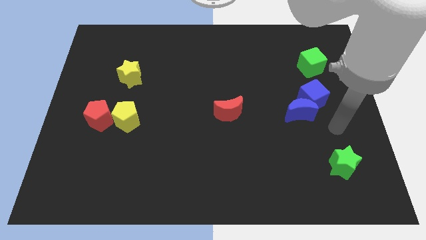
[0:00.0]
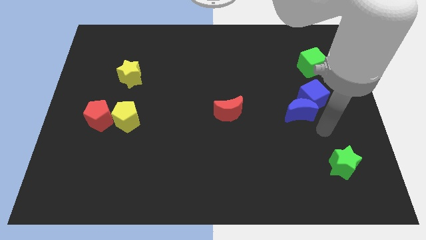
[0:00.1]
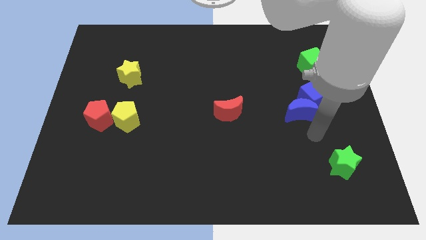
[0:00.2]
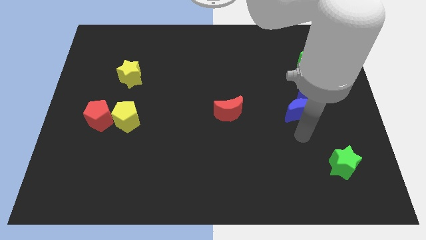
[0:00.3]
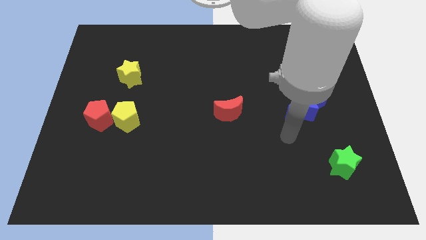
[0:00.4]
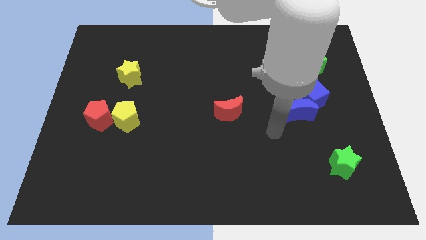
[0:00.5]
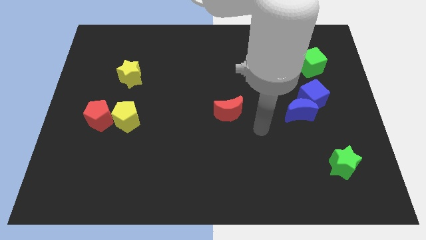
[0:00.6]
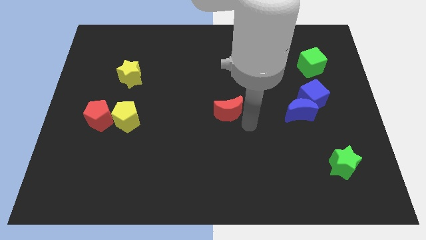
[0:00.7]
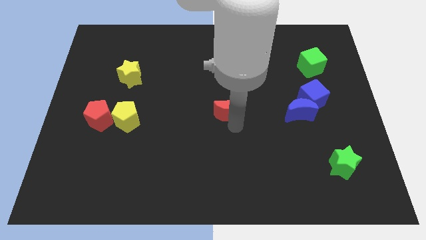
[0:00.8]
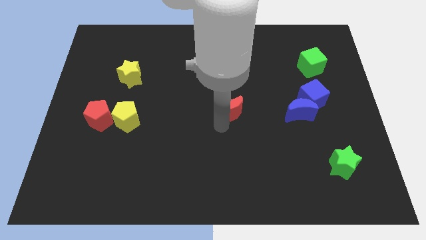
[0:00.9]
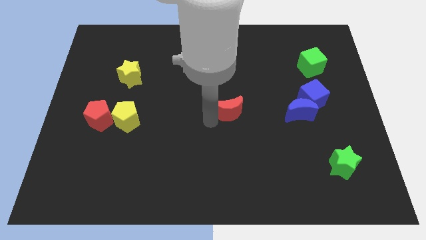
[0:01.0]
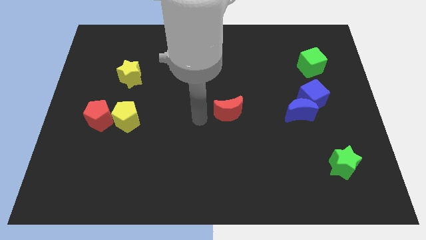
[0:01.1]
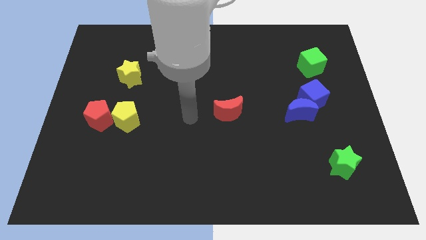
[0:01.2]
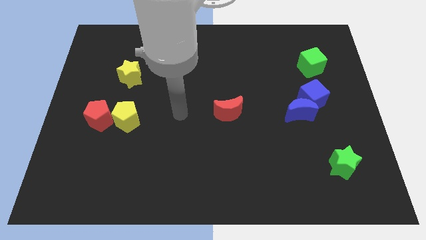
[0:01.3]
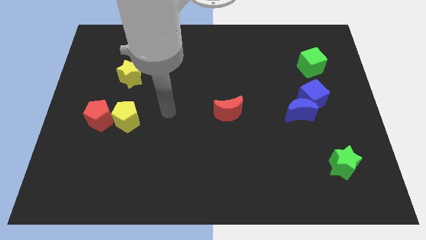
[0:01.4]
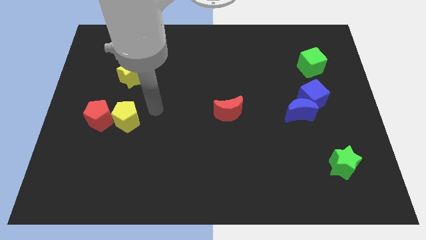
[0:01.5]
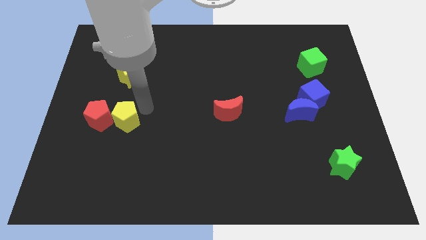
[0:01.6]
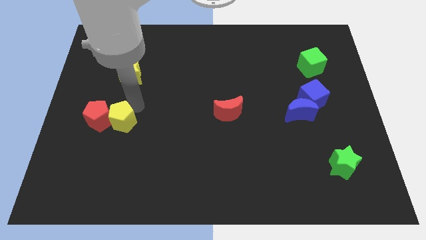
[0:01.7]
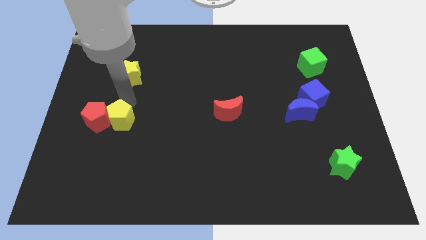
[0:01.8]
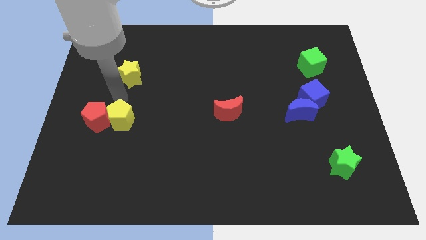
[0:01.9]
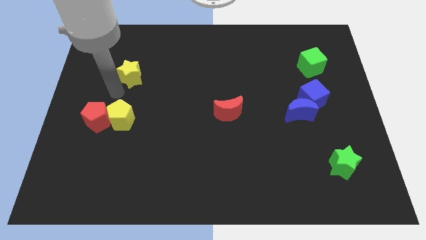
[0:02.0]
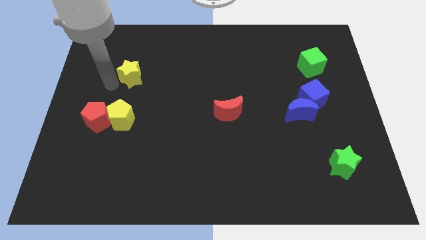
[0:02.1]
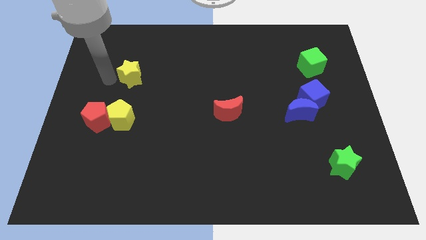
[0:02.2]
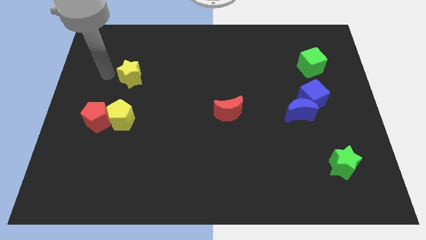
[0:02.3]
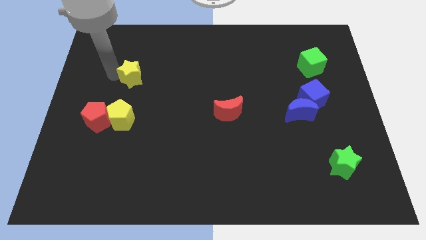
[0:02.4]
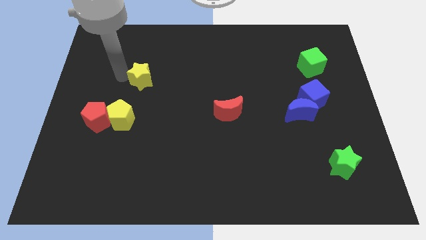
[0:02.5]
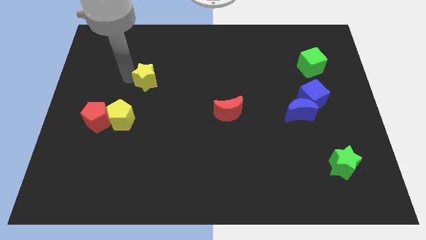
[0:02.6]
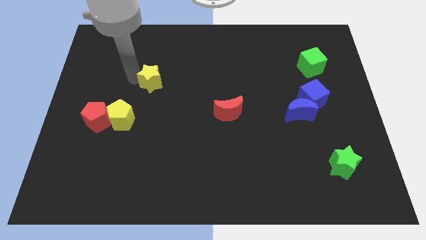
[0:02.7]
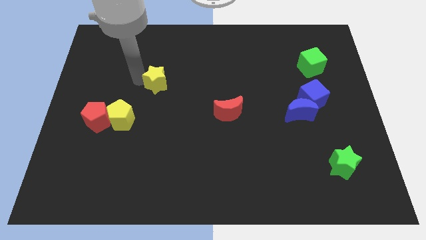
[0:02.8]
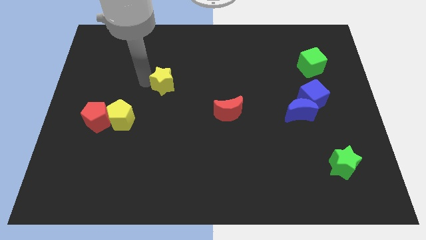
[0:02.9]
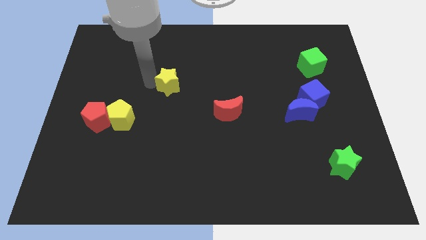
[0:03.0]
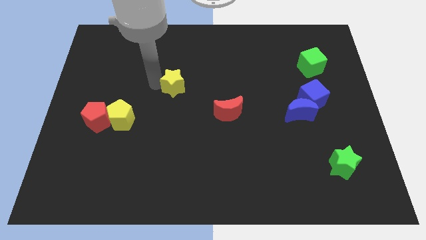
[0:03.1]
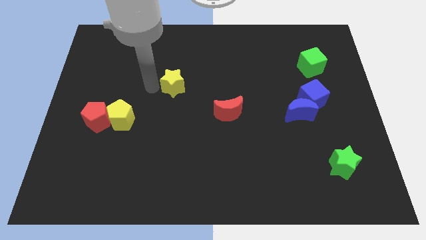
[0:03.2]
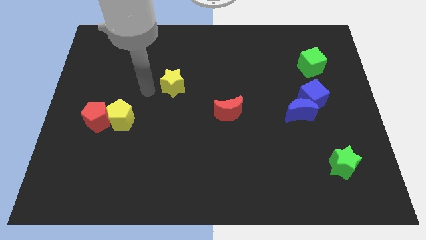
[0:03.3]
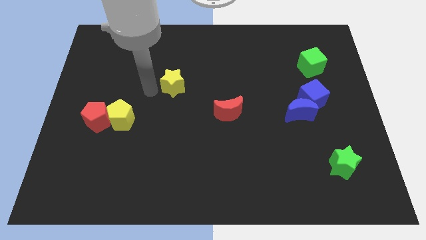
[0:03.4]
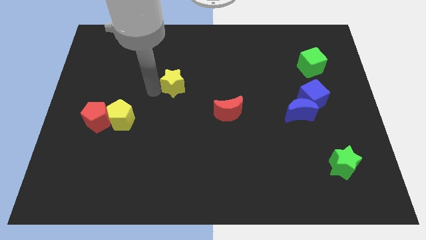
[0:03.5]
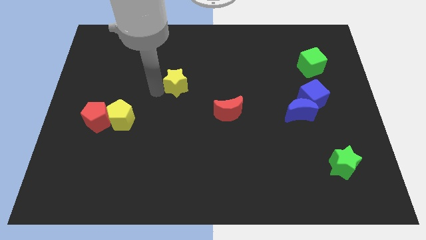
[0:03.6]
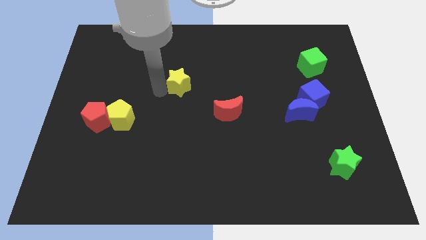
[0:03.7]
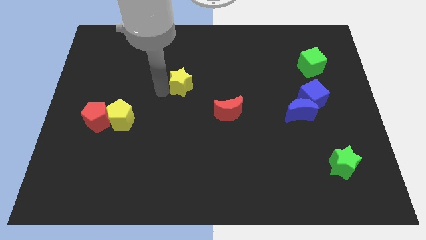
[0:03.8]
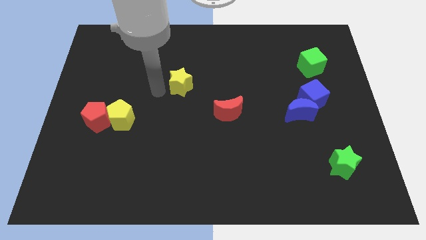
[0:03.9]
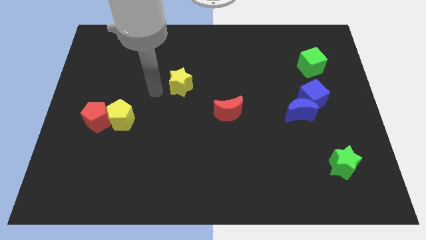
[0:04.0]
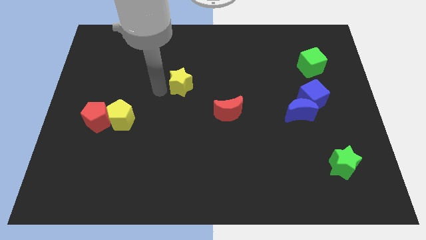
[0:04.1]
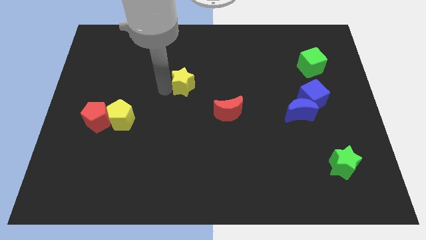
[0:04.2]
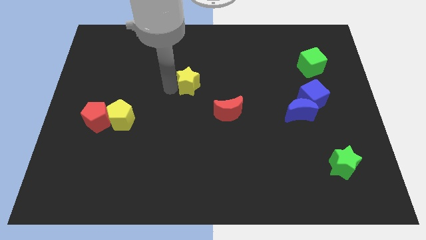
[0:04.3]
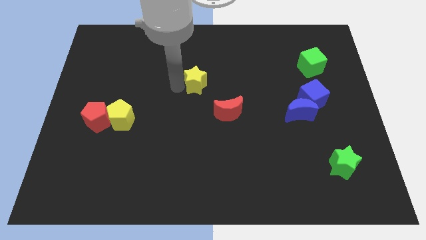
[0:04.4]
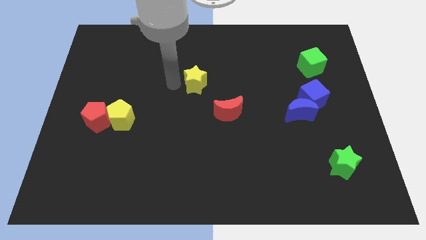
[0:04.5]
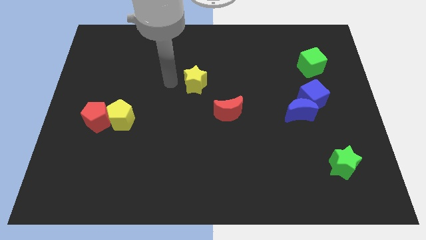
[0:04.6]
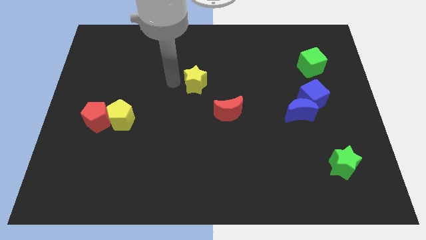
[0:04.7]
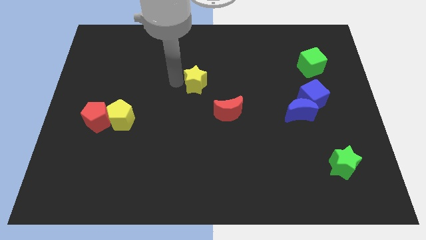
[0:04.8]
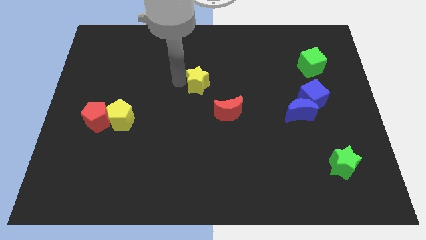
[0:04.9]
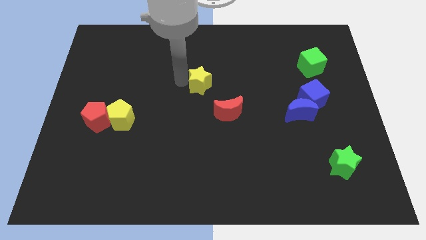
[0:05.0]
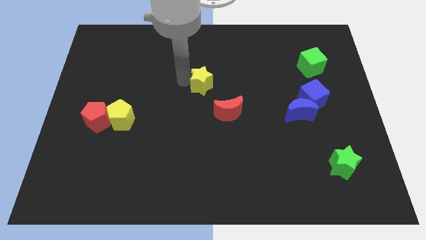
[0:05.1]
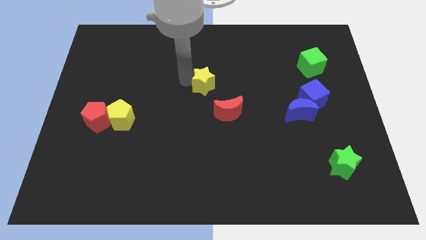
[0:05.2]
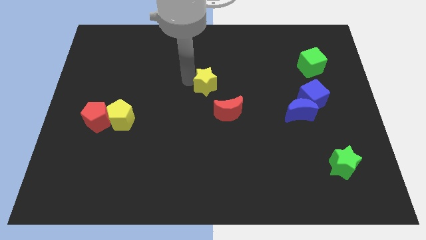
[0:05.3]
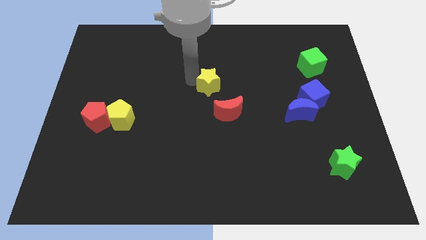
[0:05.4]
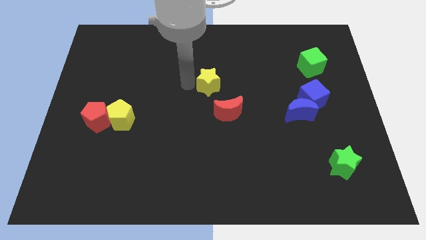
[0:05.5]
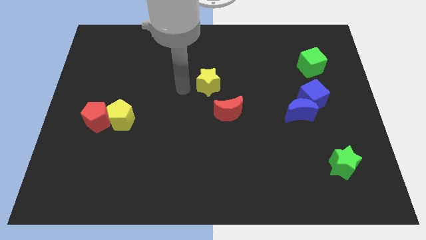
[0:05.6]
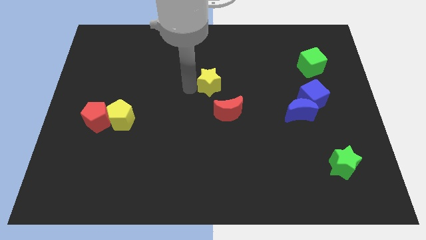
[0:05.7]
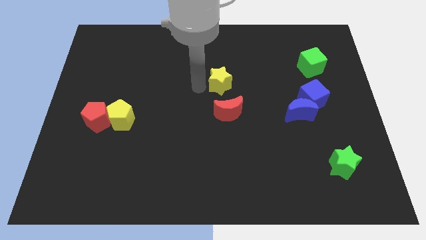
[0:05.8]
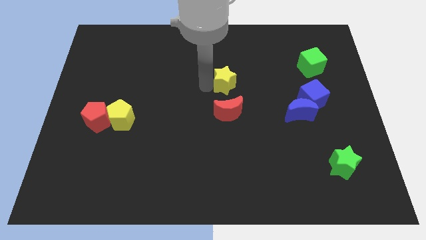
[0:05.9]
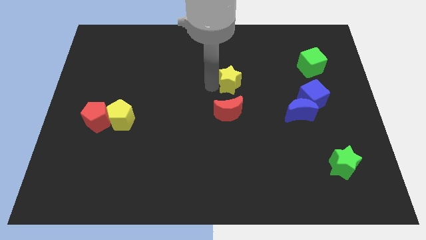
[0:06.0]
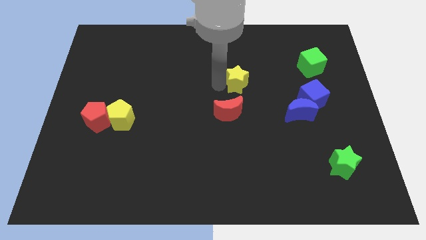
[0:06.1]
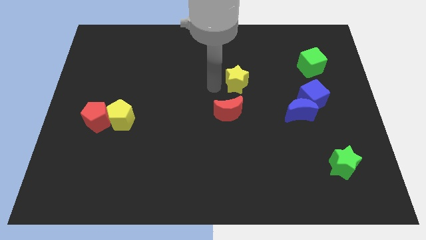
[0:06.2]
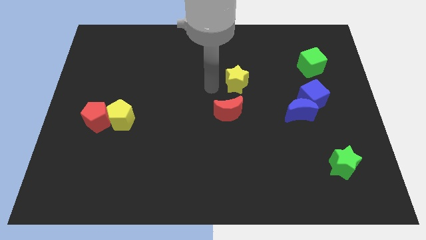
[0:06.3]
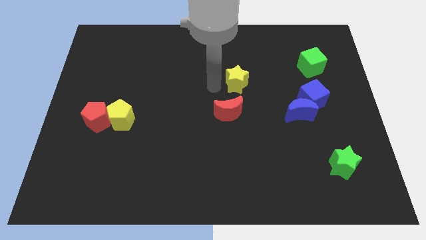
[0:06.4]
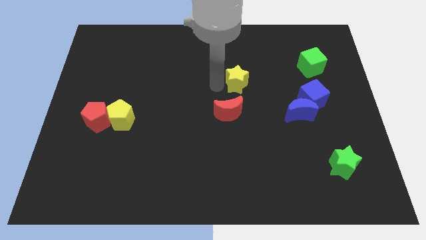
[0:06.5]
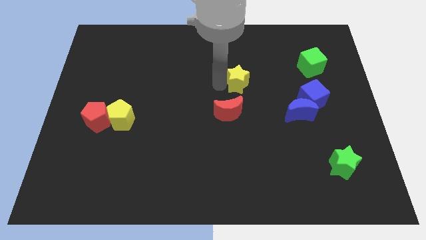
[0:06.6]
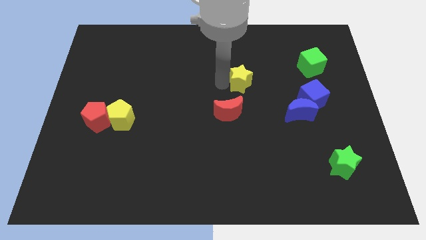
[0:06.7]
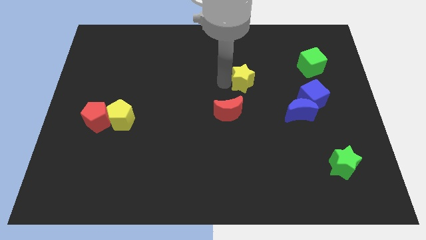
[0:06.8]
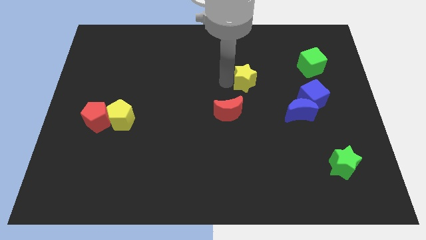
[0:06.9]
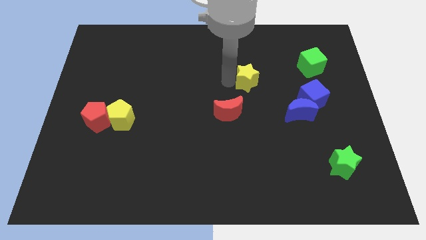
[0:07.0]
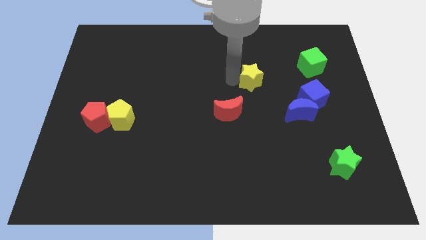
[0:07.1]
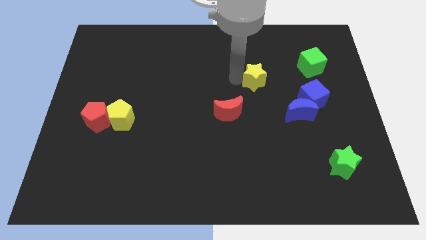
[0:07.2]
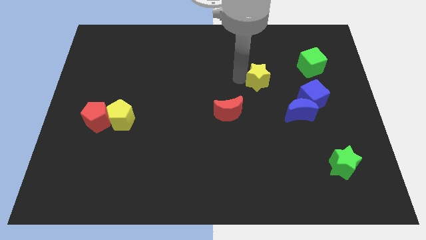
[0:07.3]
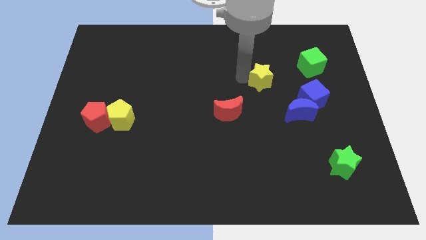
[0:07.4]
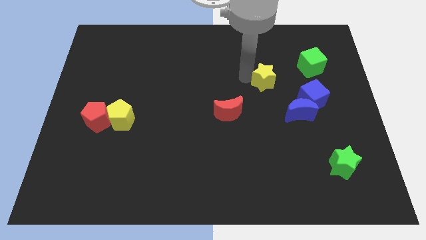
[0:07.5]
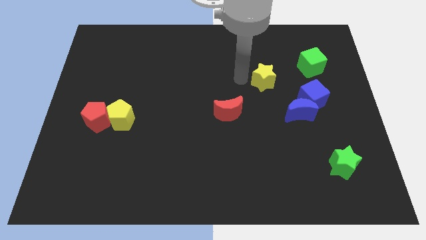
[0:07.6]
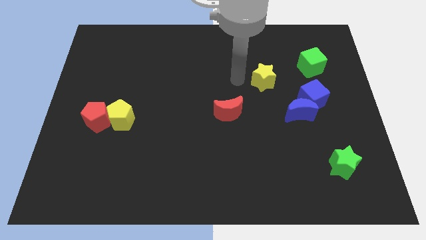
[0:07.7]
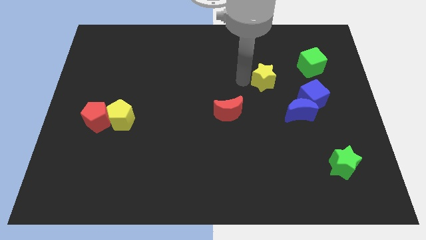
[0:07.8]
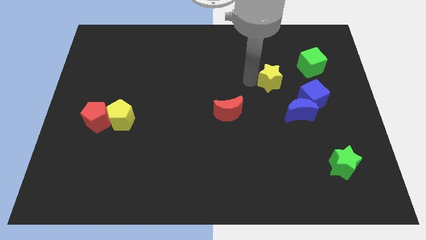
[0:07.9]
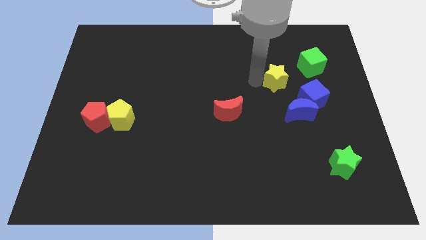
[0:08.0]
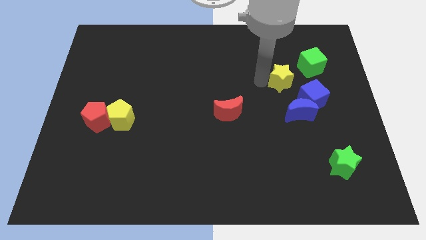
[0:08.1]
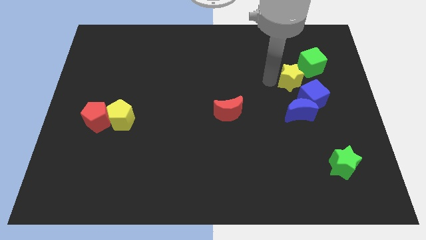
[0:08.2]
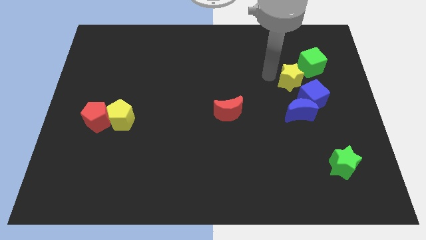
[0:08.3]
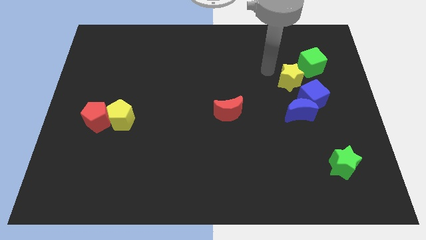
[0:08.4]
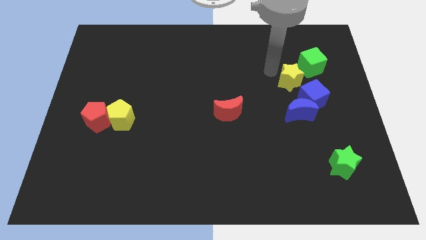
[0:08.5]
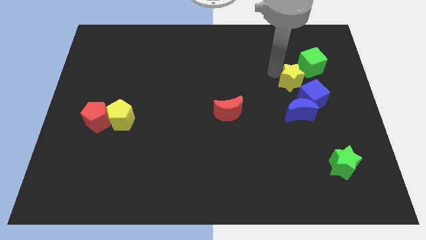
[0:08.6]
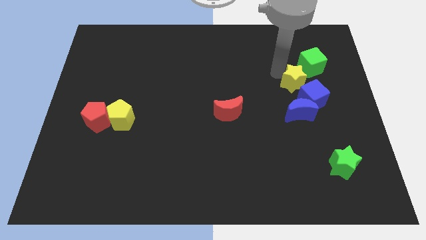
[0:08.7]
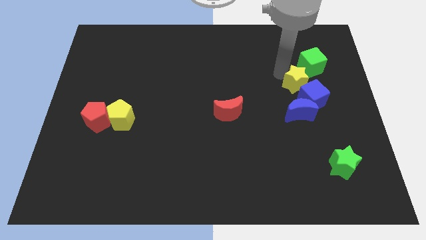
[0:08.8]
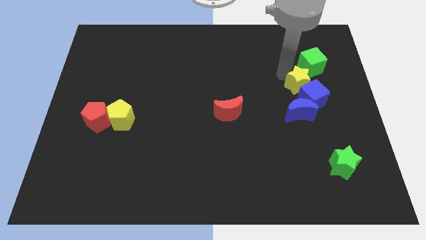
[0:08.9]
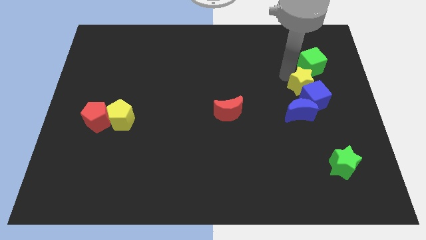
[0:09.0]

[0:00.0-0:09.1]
put the yellow star to the top right side of the blue moon
